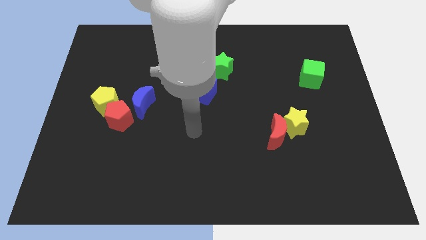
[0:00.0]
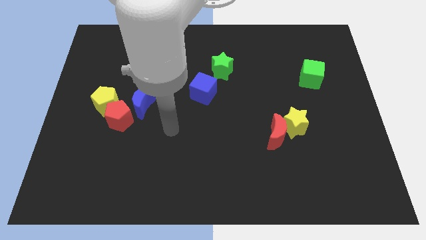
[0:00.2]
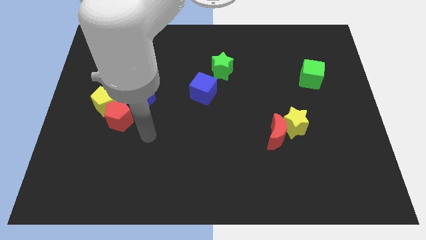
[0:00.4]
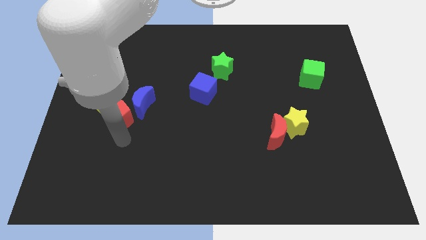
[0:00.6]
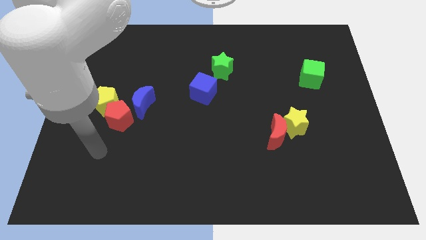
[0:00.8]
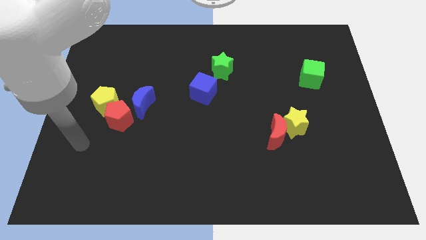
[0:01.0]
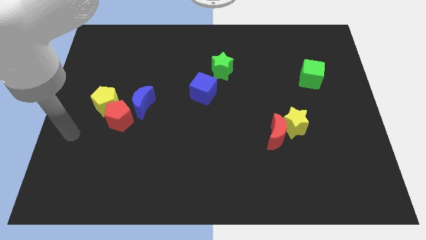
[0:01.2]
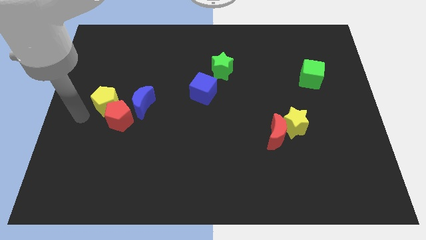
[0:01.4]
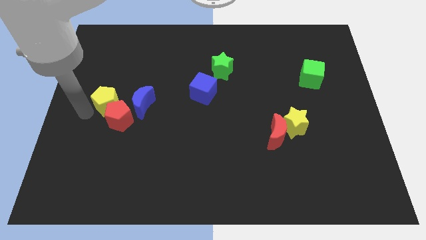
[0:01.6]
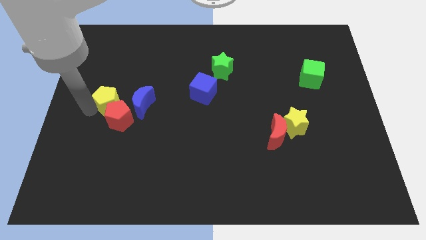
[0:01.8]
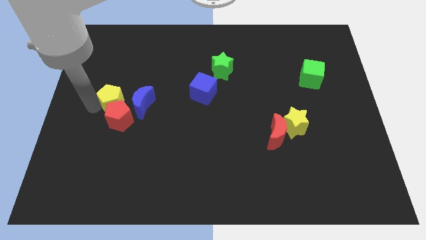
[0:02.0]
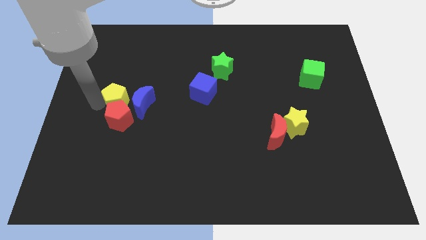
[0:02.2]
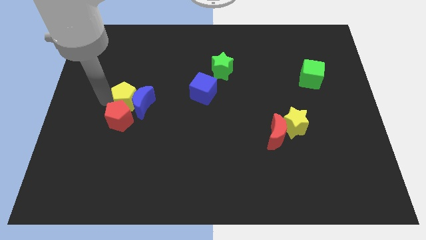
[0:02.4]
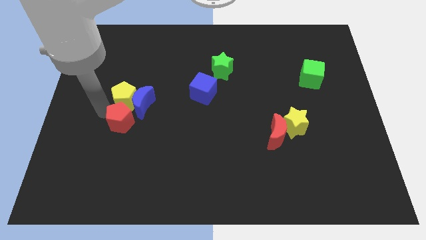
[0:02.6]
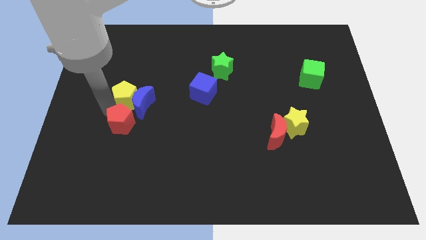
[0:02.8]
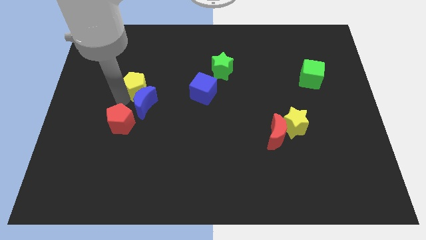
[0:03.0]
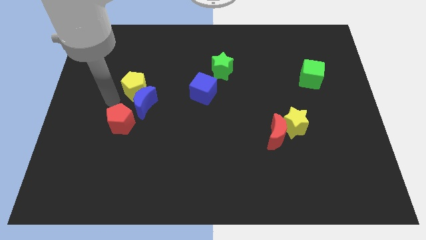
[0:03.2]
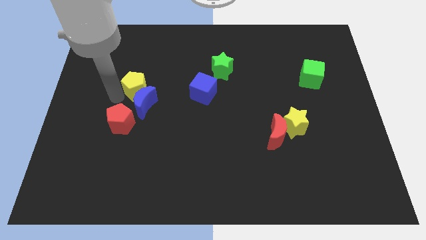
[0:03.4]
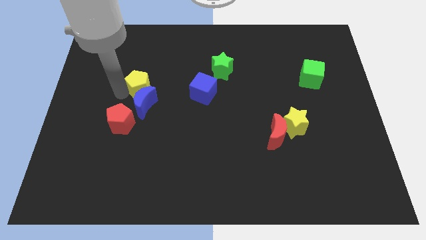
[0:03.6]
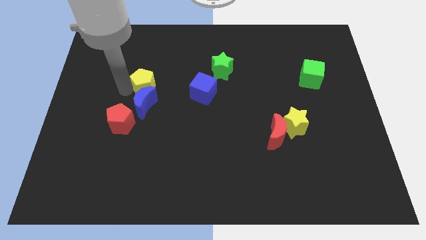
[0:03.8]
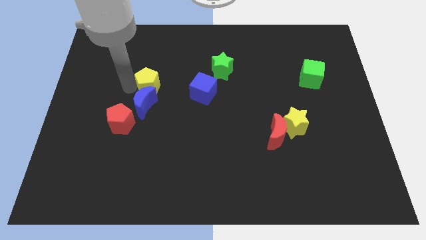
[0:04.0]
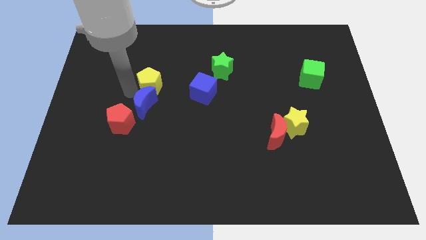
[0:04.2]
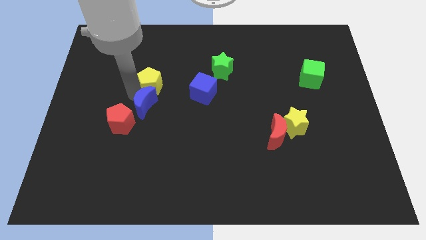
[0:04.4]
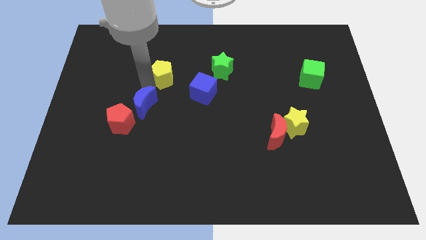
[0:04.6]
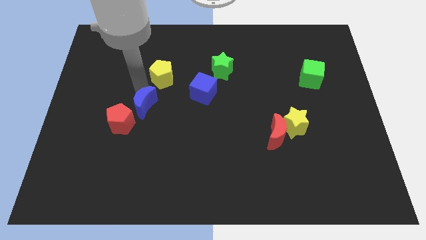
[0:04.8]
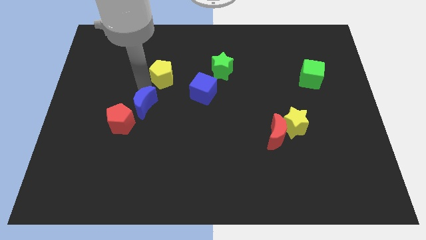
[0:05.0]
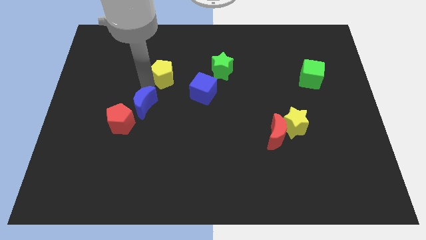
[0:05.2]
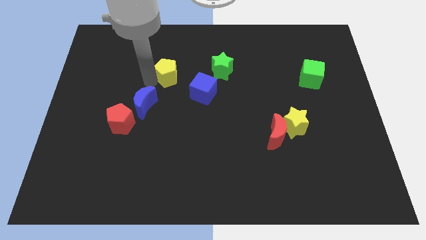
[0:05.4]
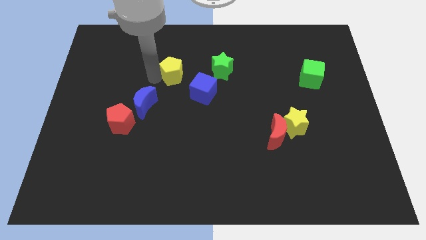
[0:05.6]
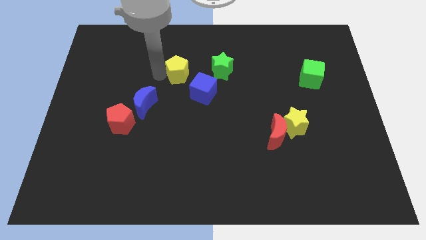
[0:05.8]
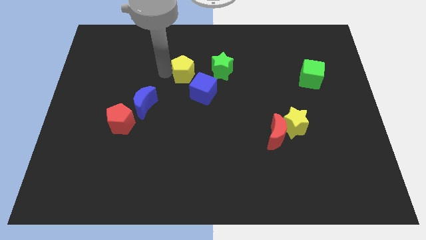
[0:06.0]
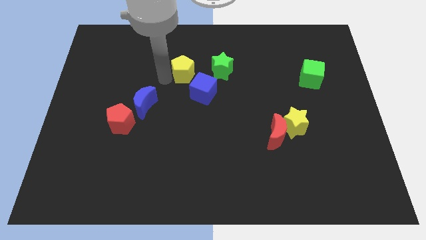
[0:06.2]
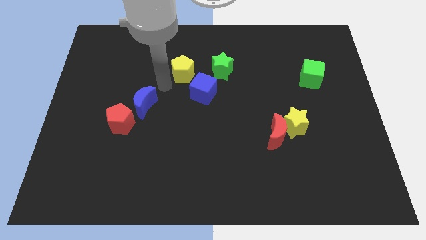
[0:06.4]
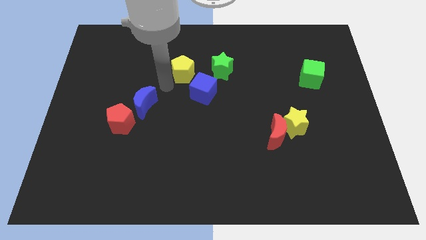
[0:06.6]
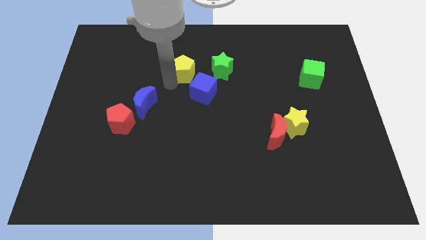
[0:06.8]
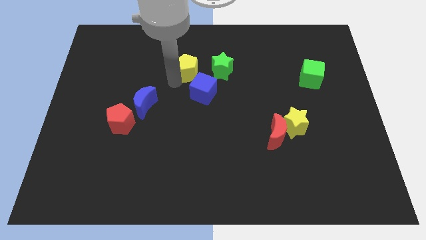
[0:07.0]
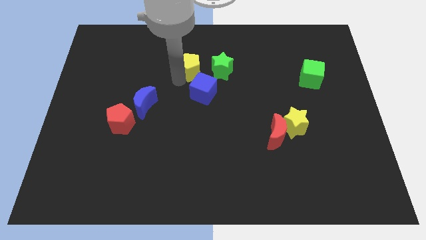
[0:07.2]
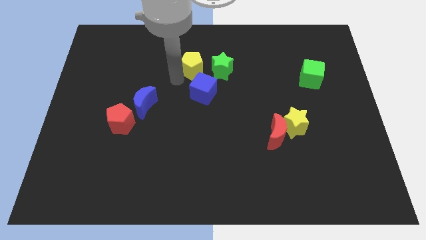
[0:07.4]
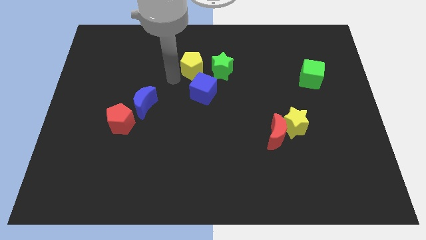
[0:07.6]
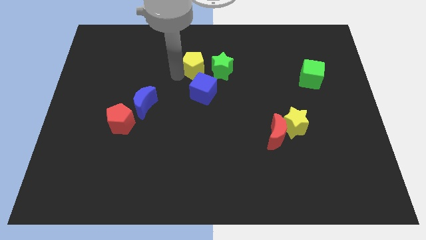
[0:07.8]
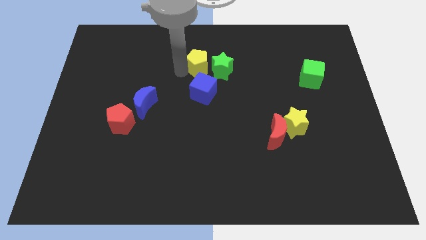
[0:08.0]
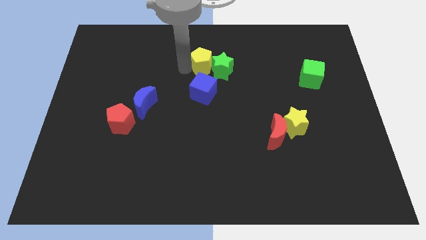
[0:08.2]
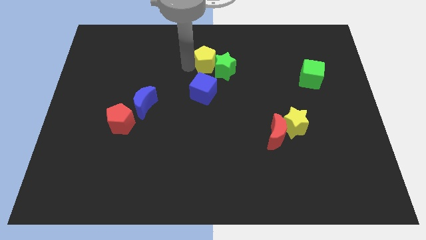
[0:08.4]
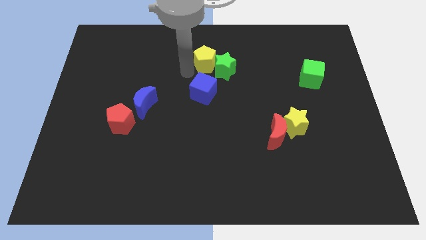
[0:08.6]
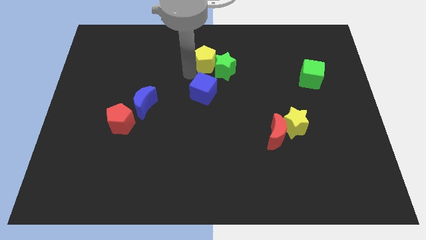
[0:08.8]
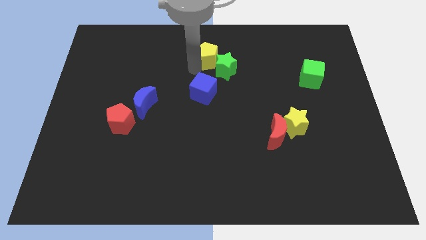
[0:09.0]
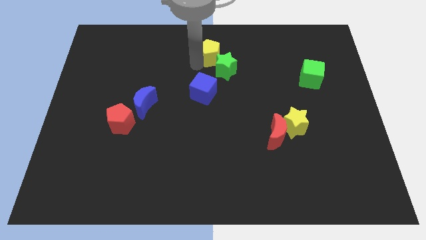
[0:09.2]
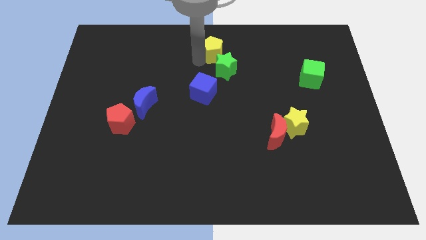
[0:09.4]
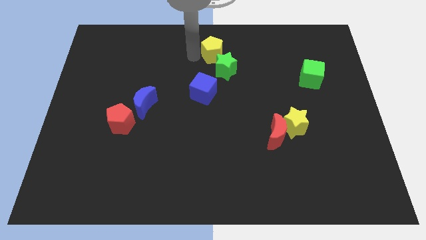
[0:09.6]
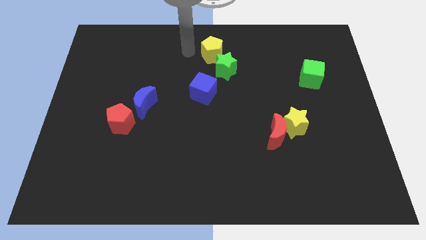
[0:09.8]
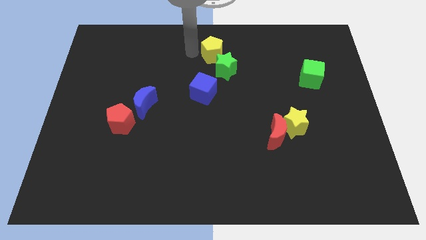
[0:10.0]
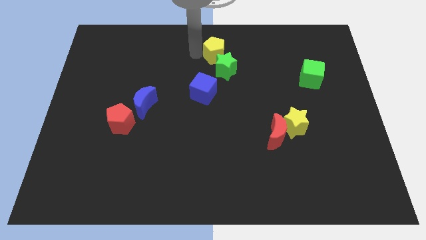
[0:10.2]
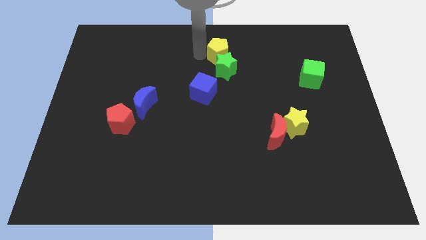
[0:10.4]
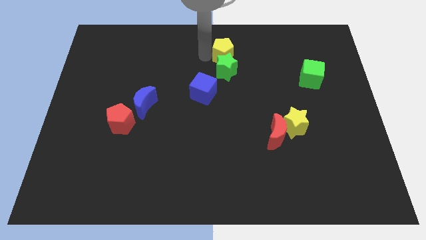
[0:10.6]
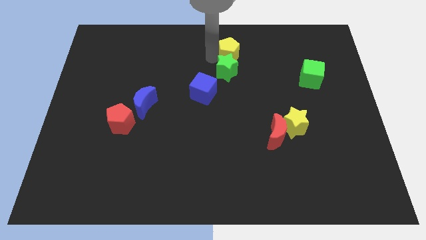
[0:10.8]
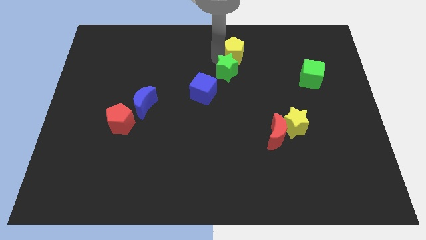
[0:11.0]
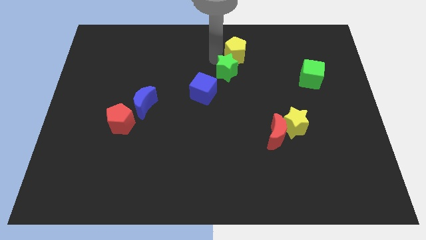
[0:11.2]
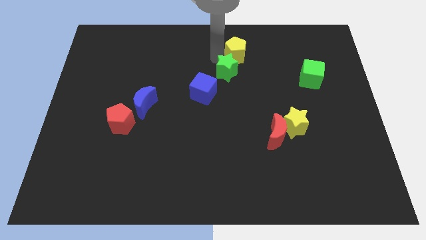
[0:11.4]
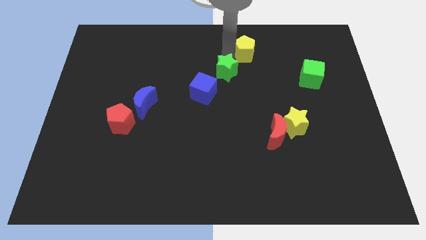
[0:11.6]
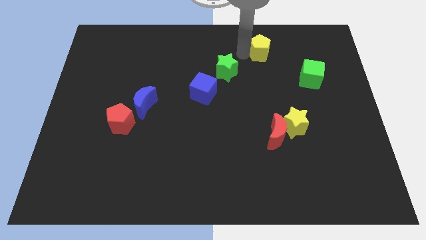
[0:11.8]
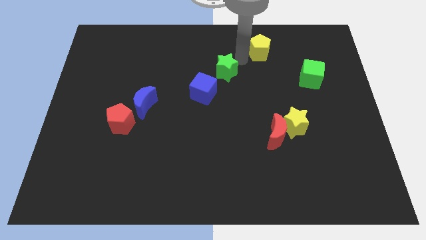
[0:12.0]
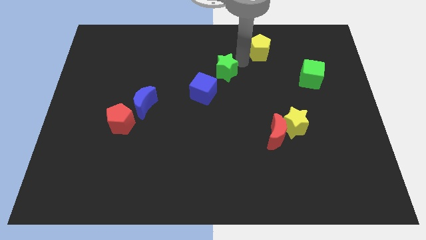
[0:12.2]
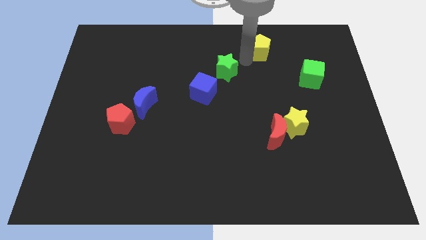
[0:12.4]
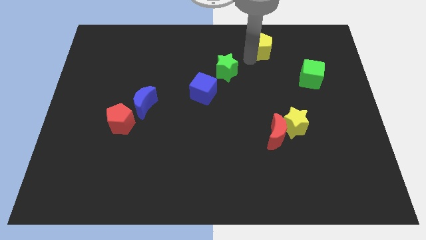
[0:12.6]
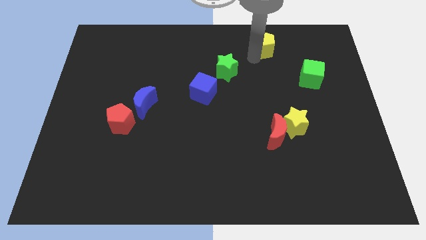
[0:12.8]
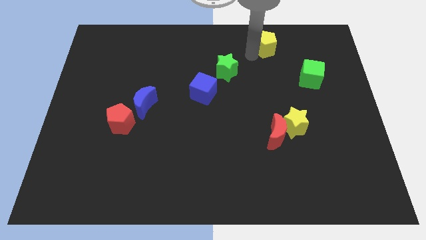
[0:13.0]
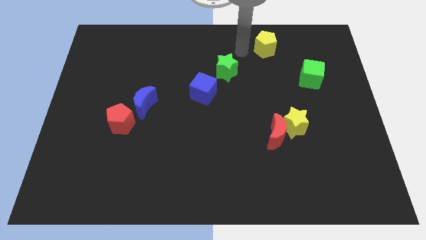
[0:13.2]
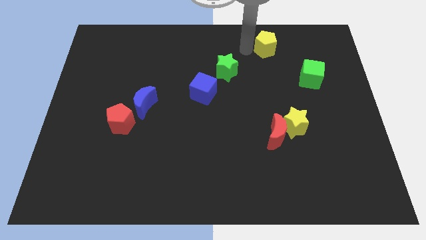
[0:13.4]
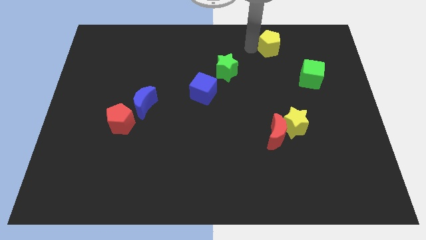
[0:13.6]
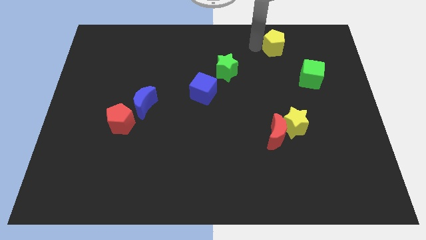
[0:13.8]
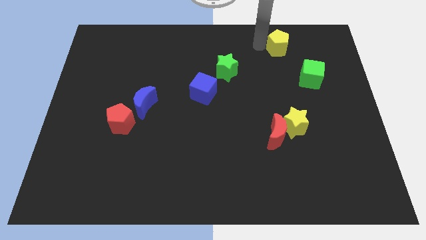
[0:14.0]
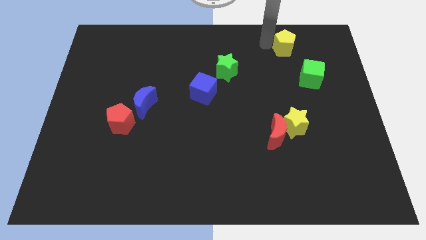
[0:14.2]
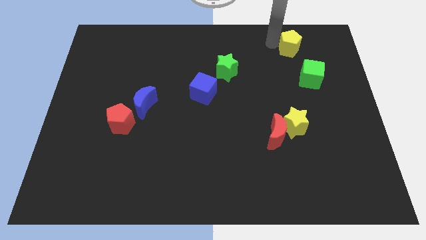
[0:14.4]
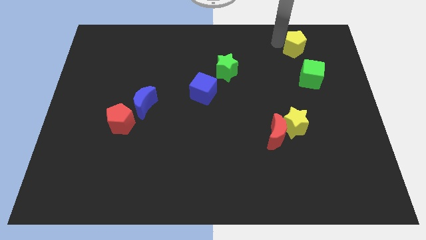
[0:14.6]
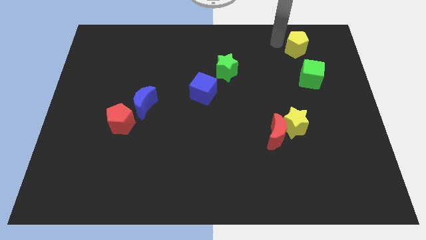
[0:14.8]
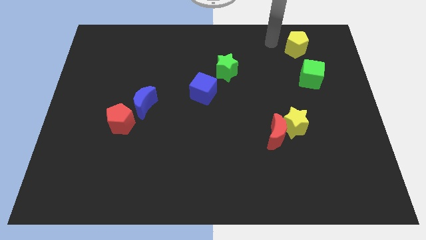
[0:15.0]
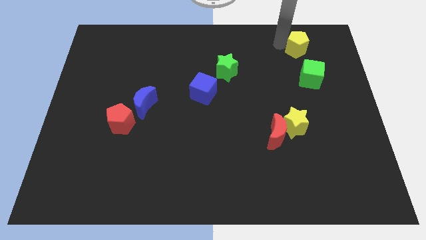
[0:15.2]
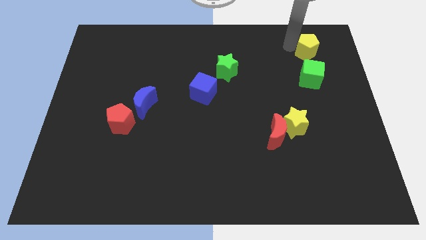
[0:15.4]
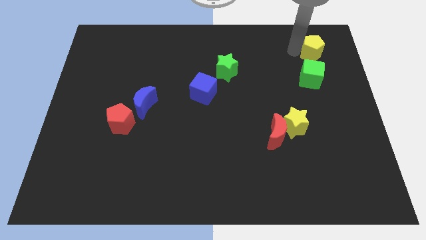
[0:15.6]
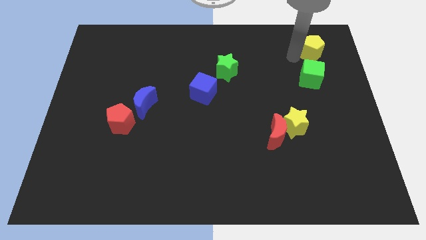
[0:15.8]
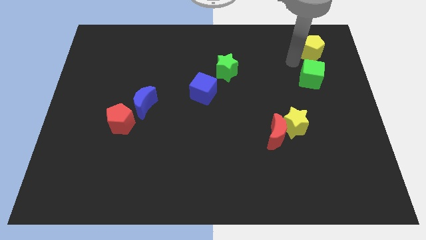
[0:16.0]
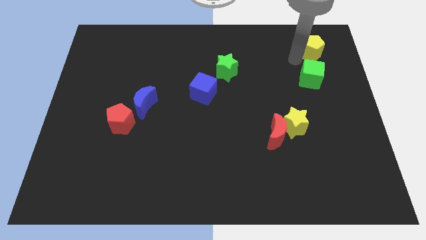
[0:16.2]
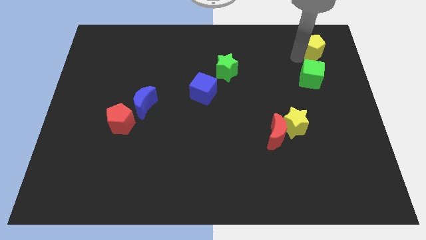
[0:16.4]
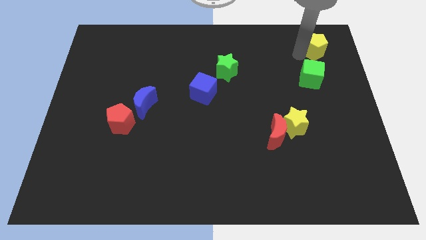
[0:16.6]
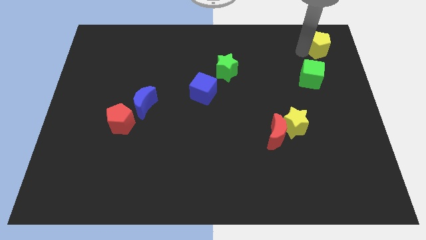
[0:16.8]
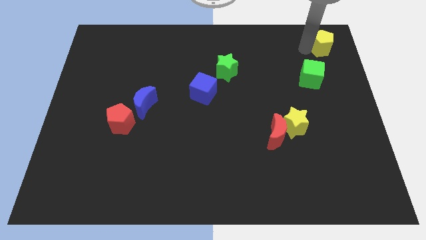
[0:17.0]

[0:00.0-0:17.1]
push the yellow pentagon to the upper right corner
